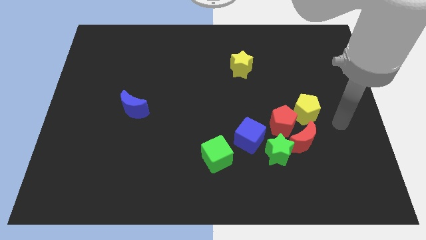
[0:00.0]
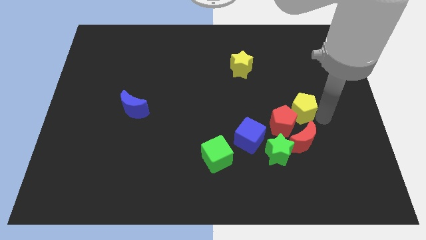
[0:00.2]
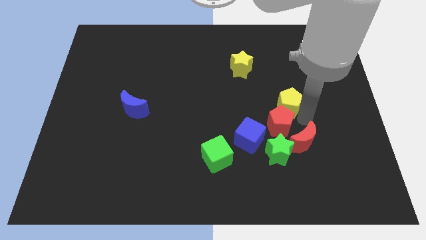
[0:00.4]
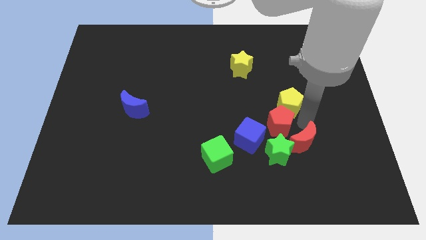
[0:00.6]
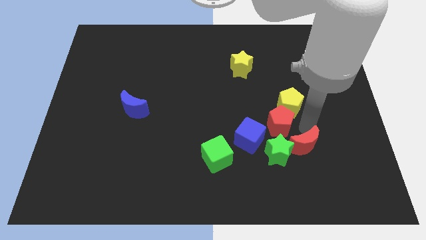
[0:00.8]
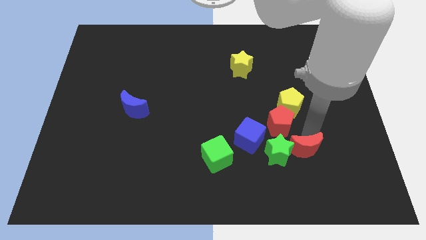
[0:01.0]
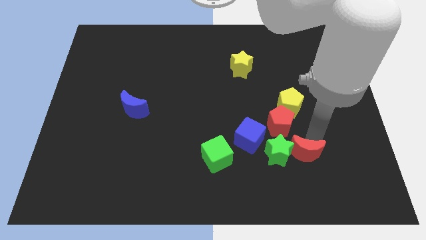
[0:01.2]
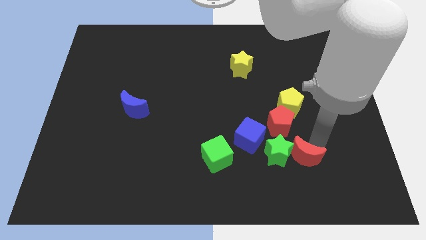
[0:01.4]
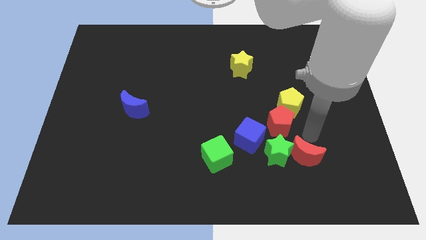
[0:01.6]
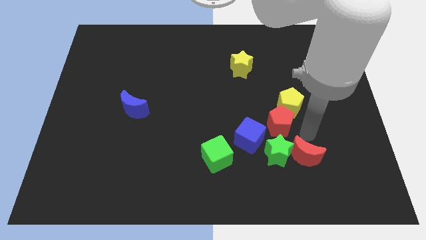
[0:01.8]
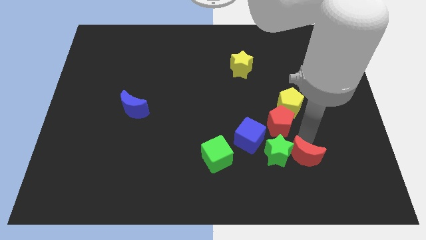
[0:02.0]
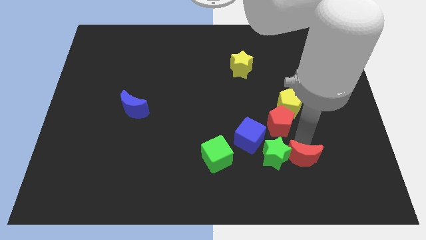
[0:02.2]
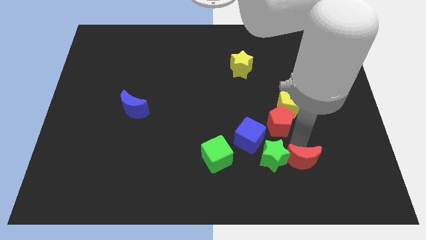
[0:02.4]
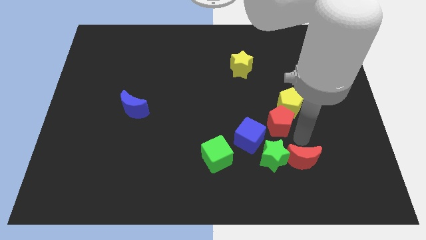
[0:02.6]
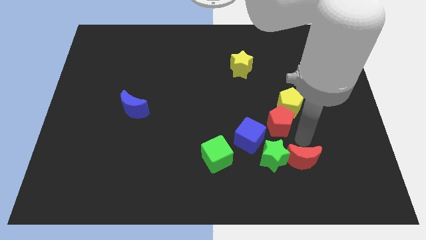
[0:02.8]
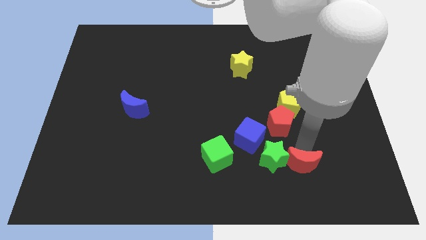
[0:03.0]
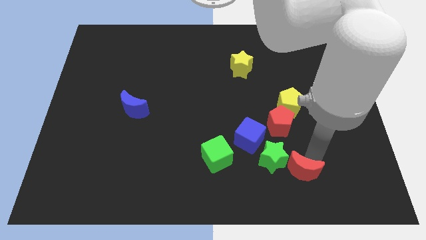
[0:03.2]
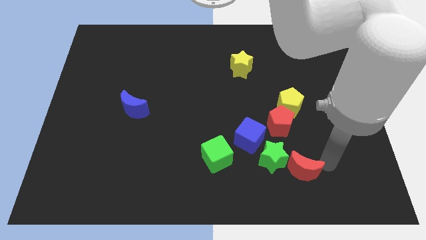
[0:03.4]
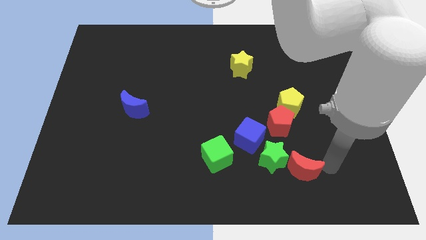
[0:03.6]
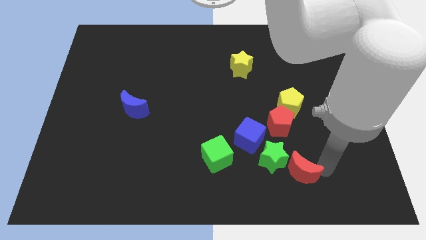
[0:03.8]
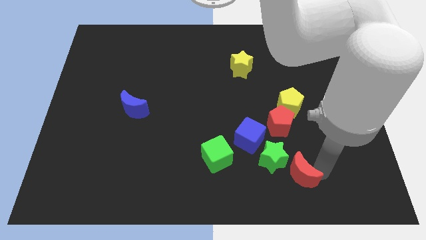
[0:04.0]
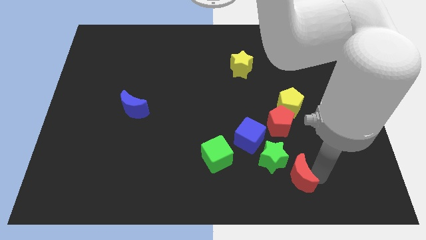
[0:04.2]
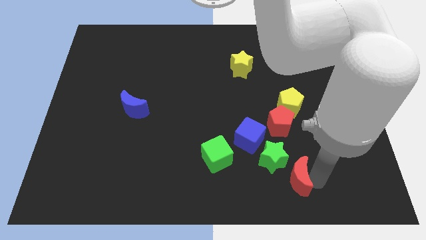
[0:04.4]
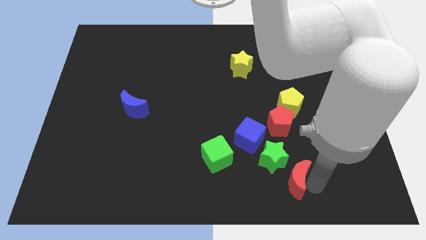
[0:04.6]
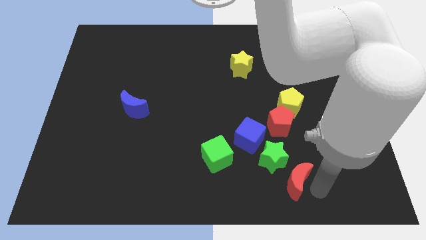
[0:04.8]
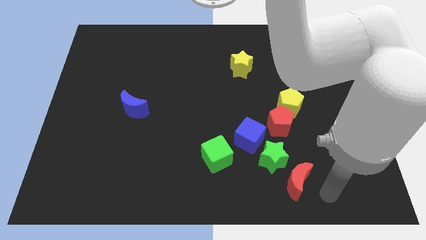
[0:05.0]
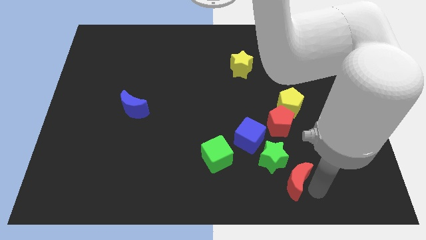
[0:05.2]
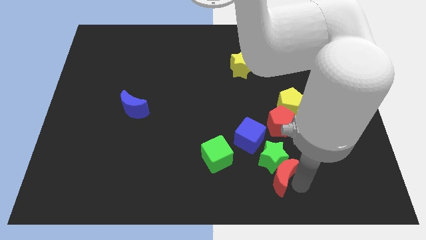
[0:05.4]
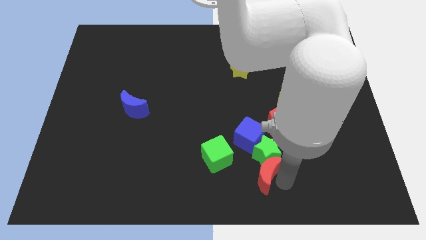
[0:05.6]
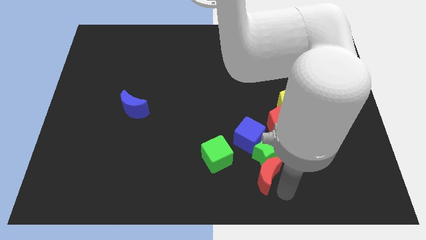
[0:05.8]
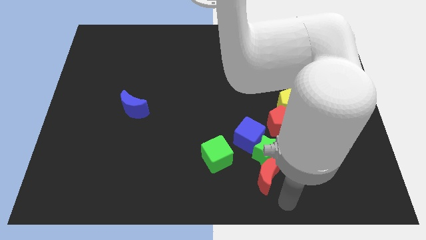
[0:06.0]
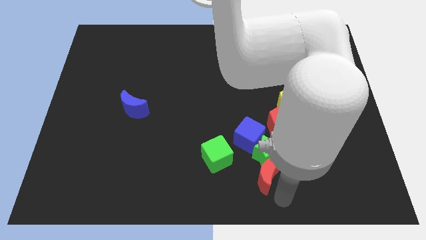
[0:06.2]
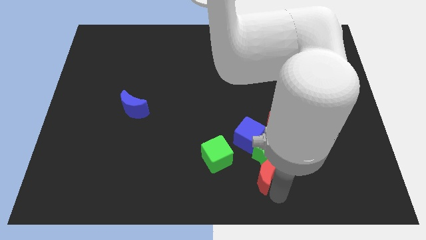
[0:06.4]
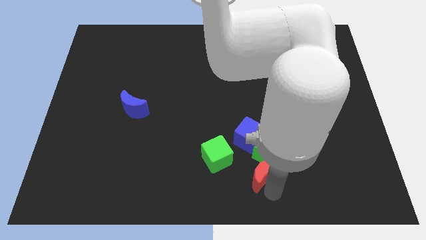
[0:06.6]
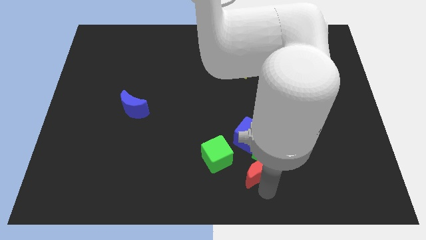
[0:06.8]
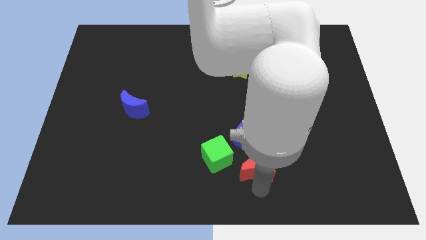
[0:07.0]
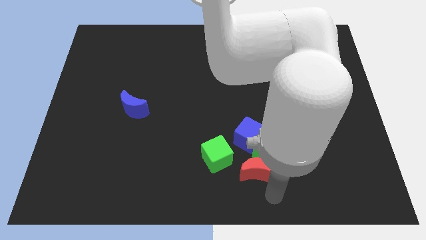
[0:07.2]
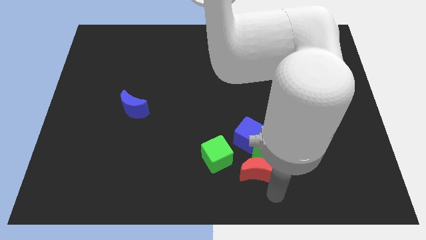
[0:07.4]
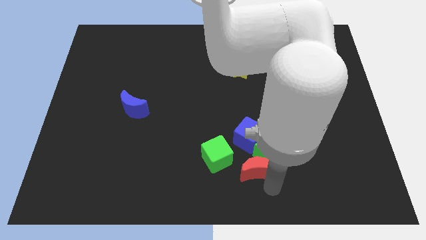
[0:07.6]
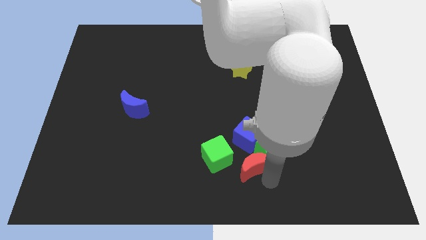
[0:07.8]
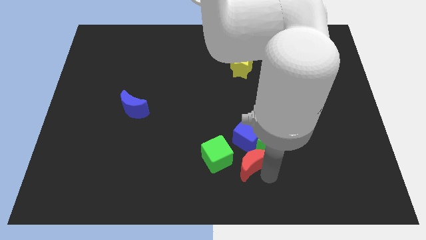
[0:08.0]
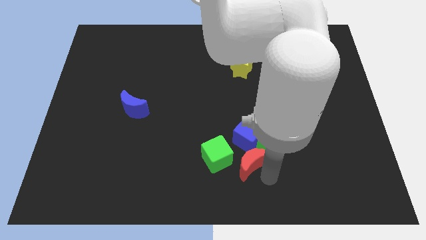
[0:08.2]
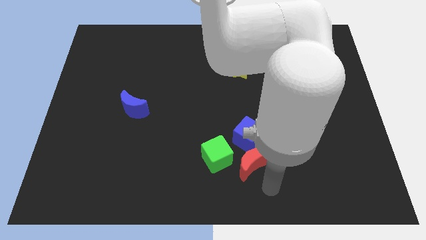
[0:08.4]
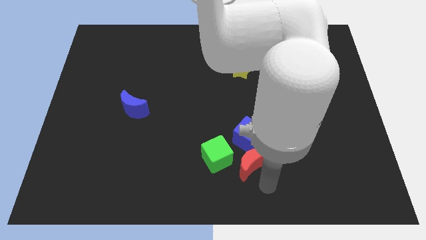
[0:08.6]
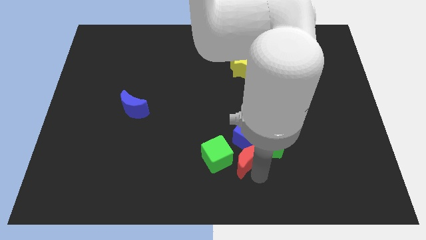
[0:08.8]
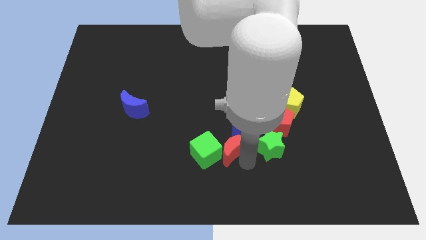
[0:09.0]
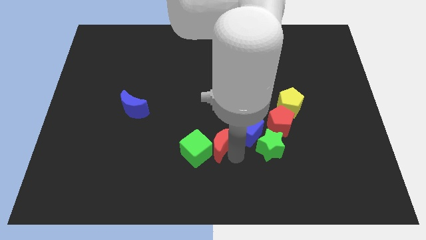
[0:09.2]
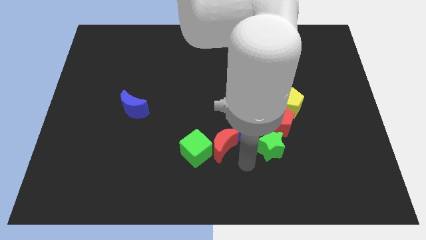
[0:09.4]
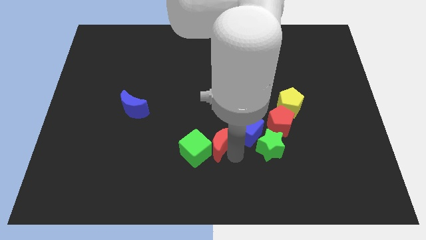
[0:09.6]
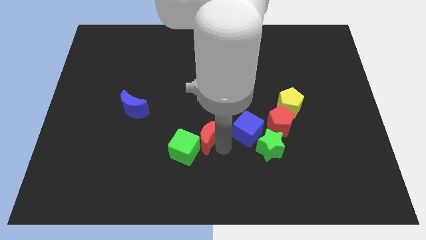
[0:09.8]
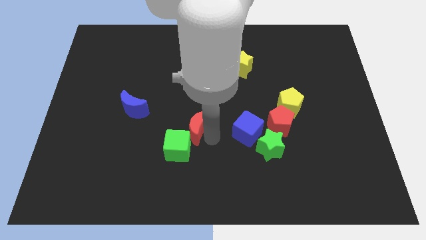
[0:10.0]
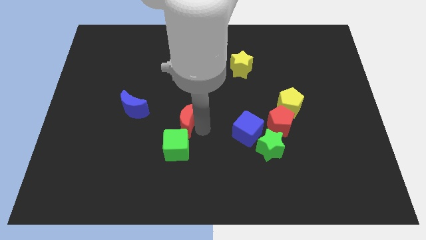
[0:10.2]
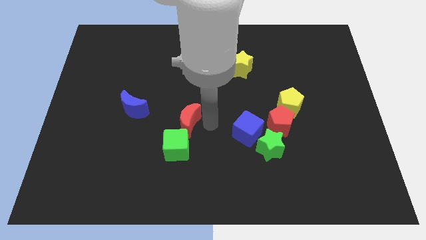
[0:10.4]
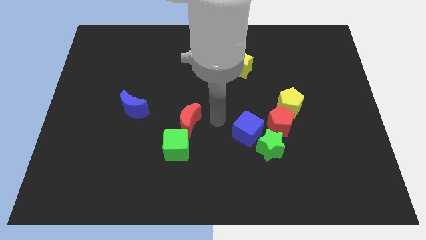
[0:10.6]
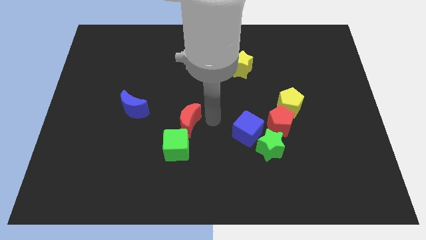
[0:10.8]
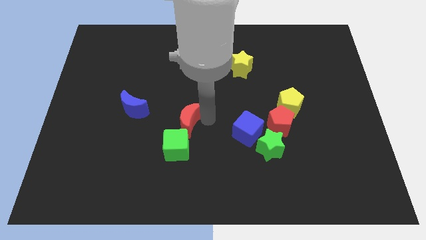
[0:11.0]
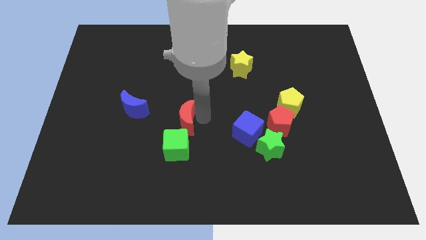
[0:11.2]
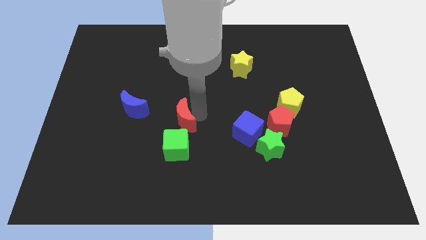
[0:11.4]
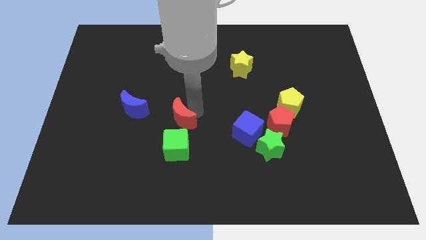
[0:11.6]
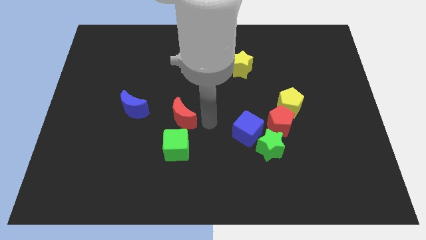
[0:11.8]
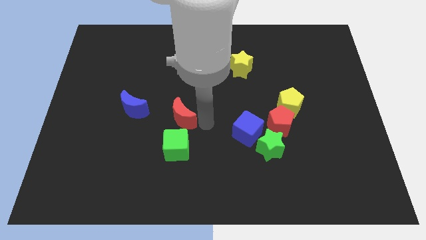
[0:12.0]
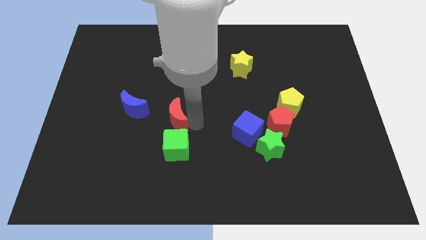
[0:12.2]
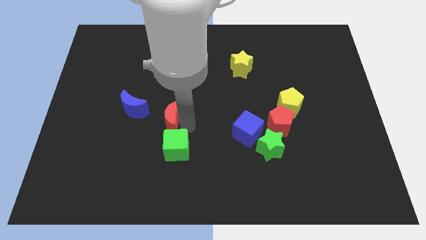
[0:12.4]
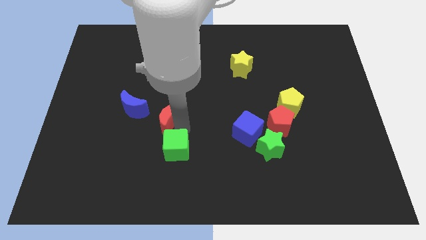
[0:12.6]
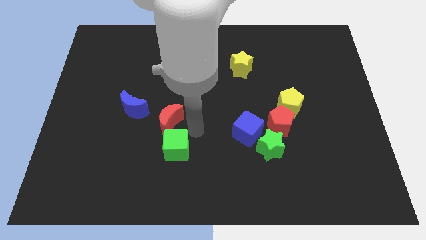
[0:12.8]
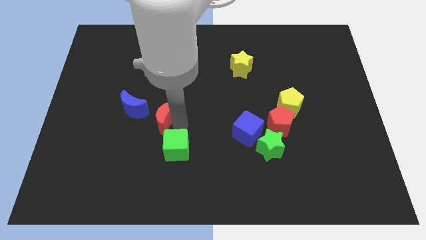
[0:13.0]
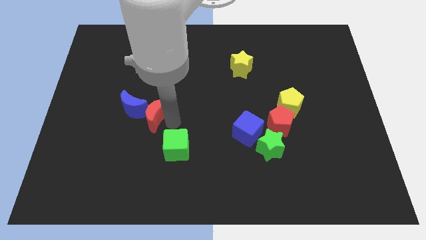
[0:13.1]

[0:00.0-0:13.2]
slide the red moon towards the blue moon

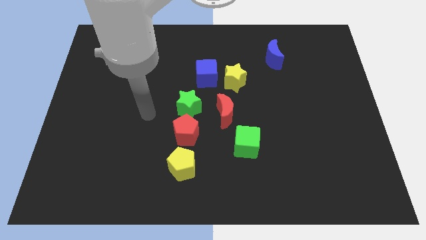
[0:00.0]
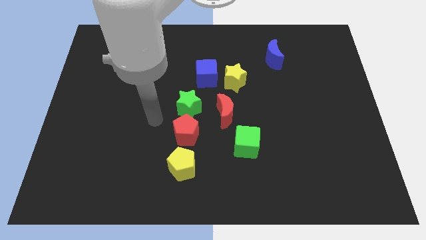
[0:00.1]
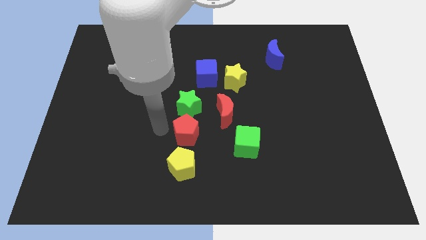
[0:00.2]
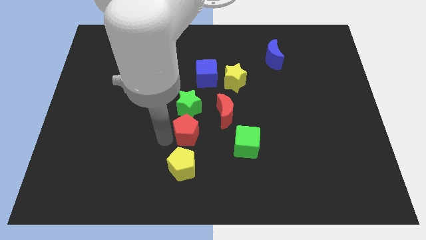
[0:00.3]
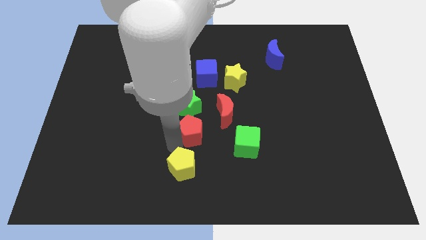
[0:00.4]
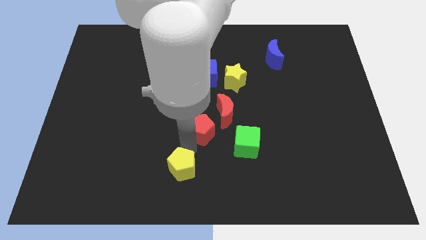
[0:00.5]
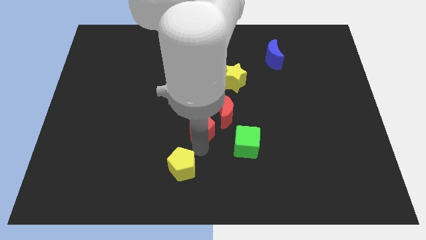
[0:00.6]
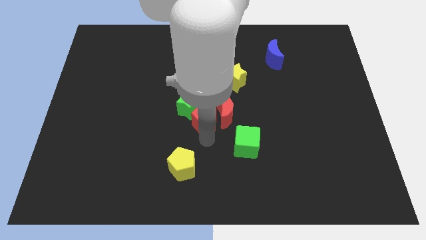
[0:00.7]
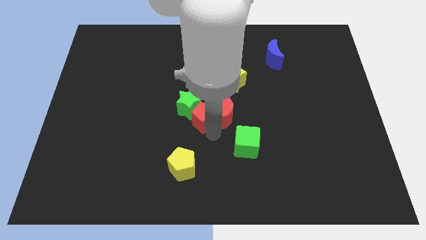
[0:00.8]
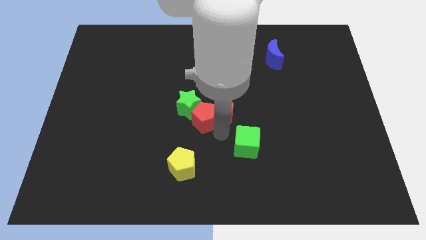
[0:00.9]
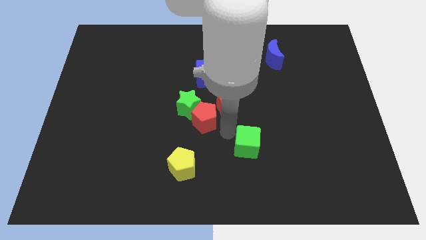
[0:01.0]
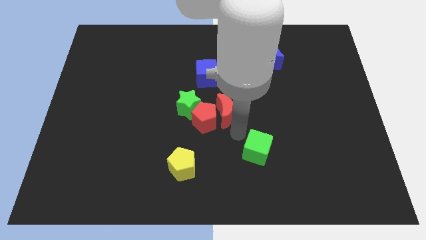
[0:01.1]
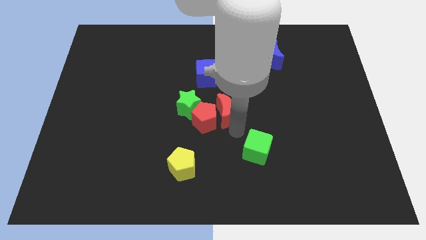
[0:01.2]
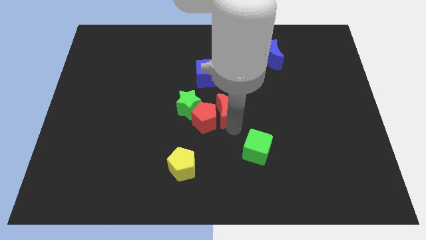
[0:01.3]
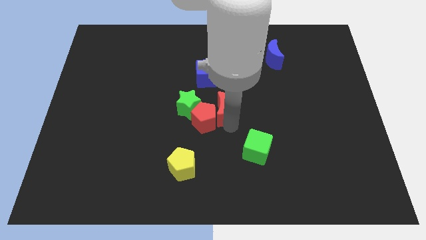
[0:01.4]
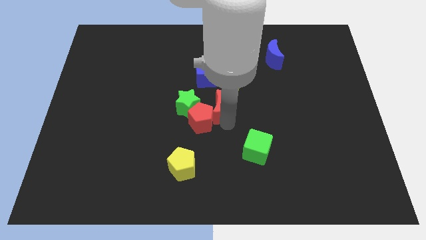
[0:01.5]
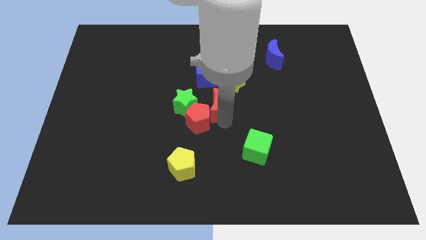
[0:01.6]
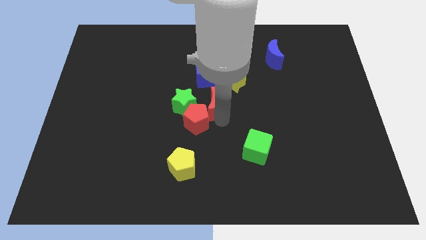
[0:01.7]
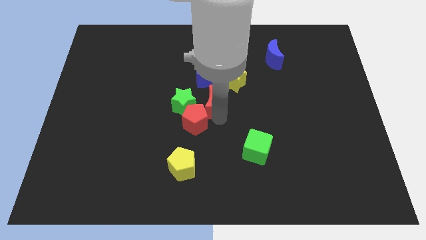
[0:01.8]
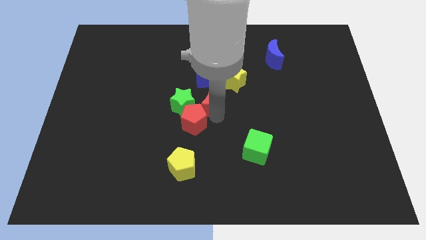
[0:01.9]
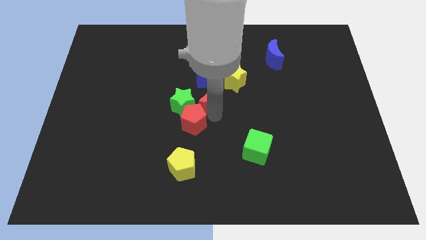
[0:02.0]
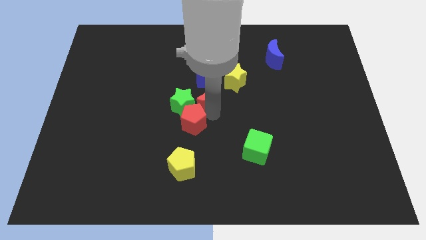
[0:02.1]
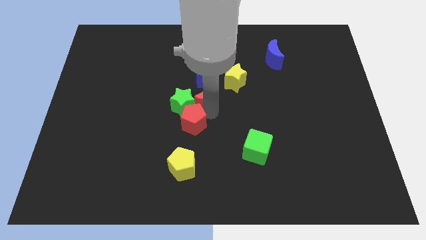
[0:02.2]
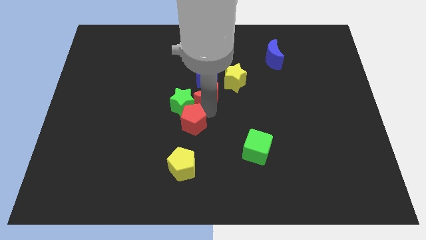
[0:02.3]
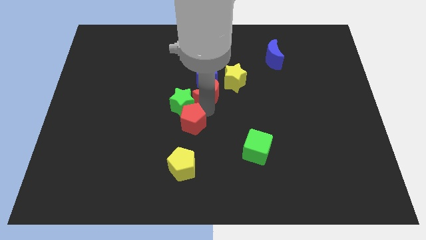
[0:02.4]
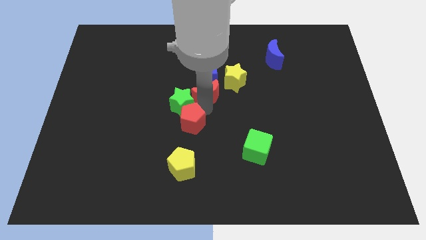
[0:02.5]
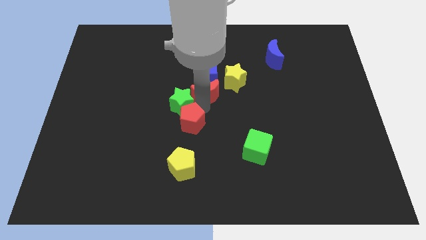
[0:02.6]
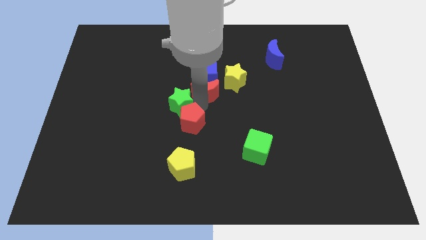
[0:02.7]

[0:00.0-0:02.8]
put the red moon close to the blue cube
